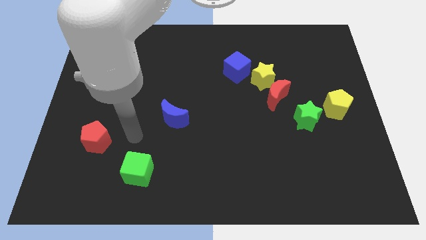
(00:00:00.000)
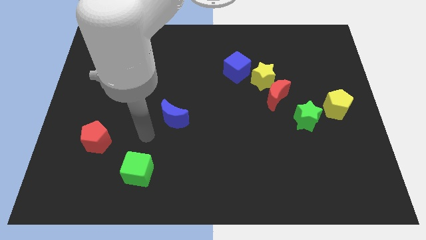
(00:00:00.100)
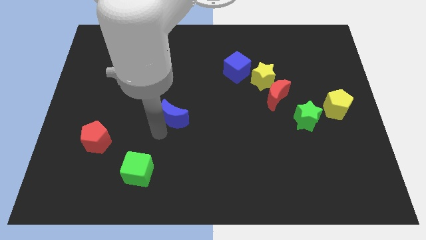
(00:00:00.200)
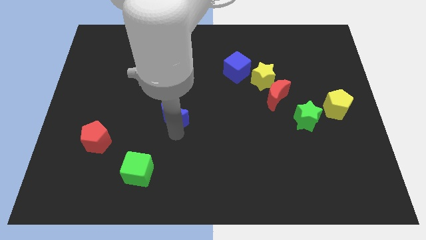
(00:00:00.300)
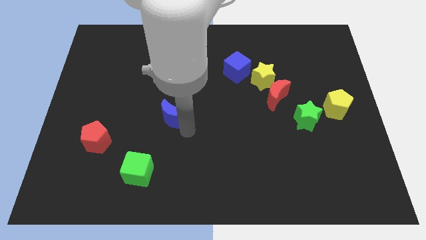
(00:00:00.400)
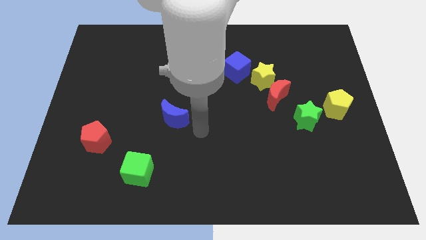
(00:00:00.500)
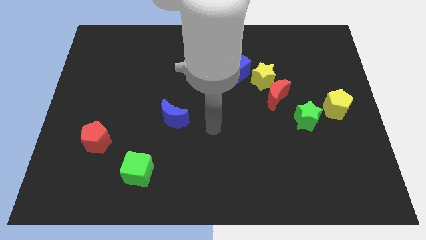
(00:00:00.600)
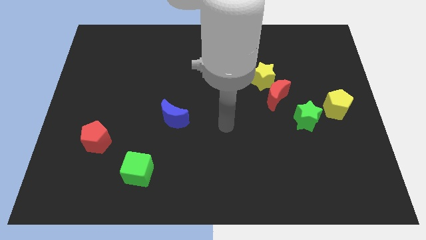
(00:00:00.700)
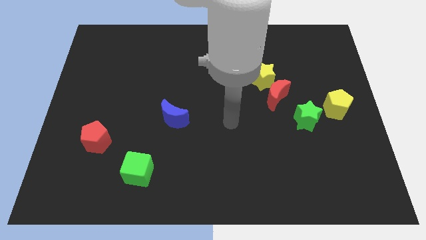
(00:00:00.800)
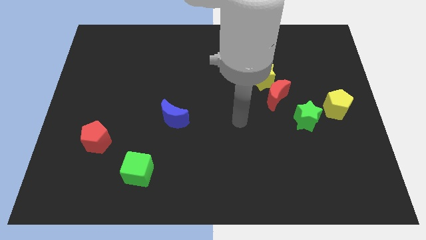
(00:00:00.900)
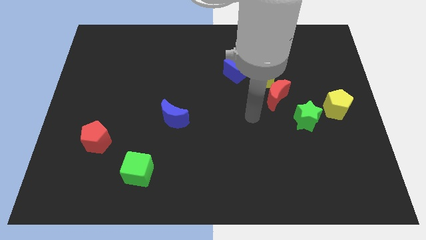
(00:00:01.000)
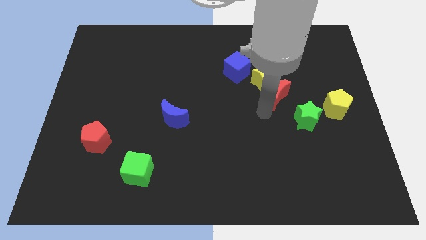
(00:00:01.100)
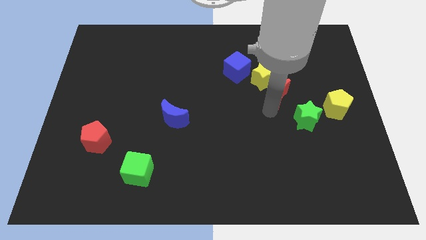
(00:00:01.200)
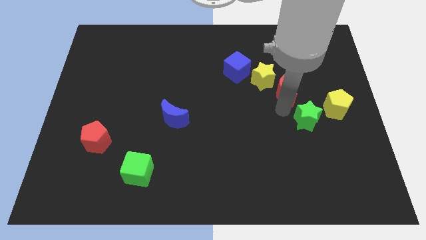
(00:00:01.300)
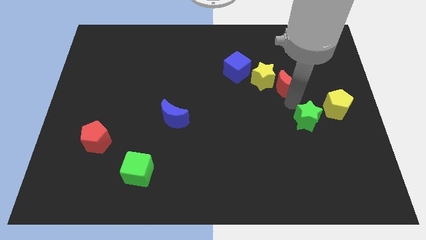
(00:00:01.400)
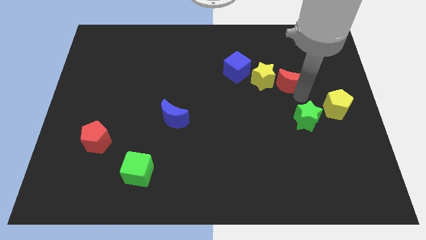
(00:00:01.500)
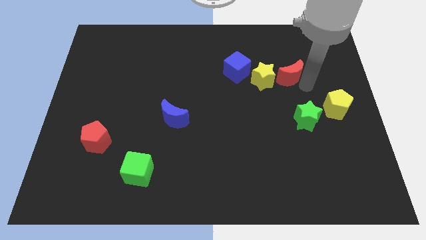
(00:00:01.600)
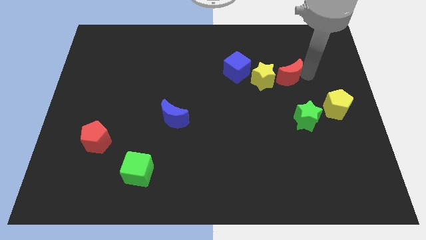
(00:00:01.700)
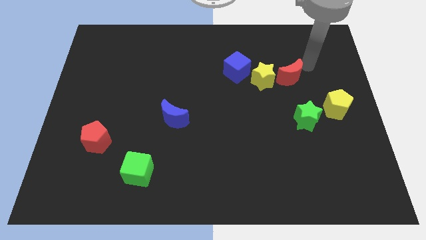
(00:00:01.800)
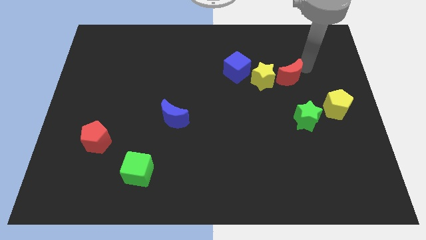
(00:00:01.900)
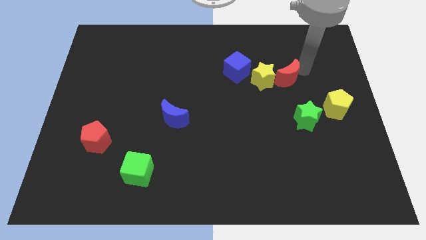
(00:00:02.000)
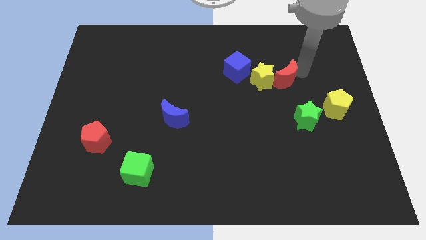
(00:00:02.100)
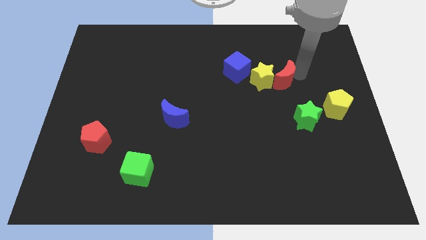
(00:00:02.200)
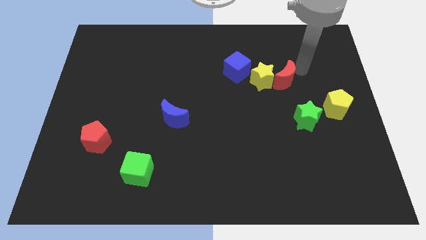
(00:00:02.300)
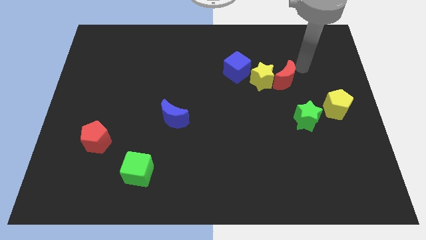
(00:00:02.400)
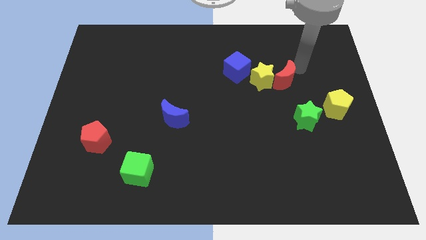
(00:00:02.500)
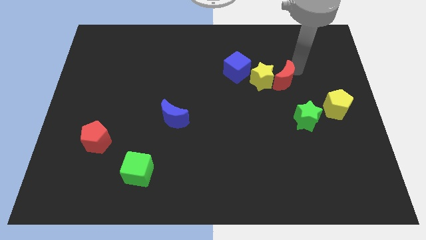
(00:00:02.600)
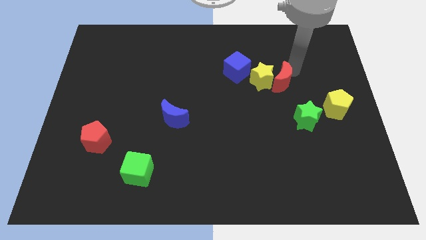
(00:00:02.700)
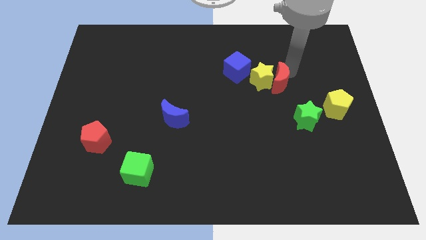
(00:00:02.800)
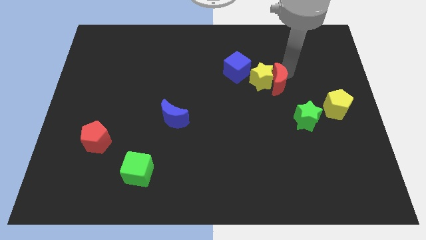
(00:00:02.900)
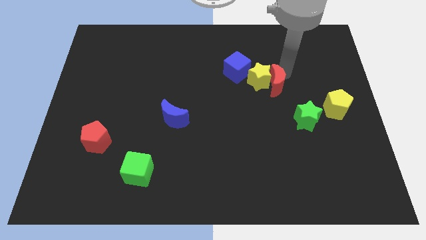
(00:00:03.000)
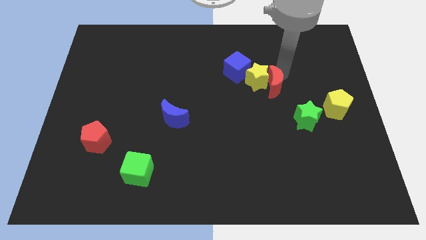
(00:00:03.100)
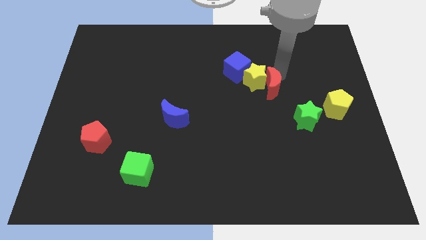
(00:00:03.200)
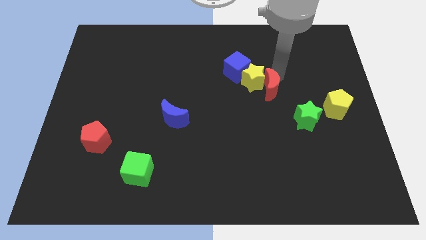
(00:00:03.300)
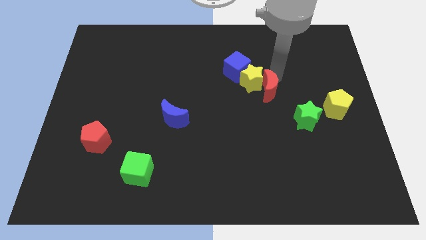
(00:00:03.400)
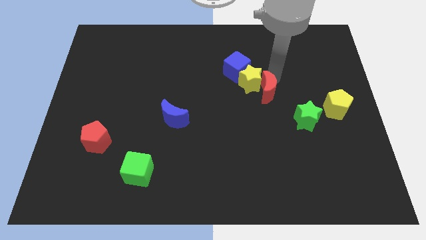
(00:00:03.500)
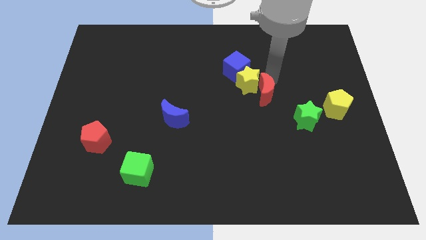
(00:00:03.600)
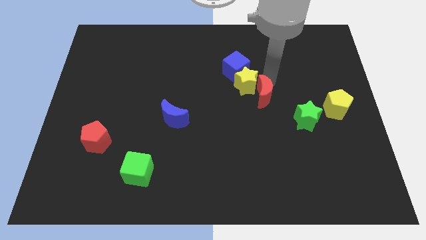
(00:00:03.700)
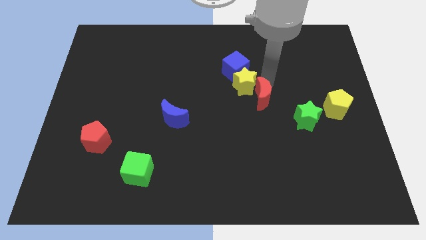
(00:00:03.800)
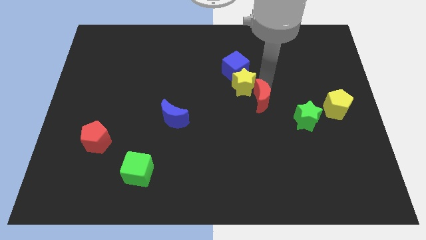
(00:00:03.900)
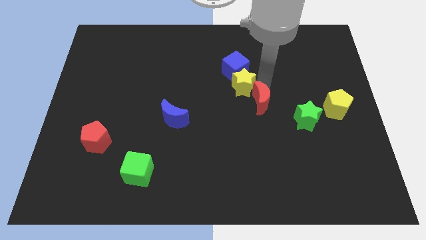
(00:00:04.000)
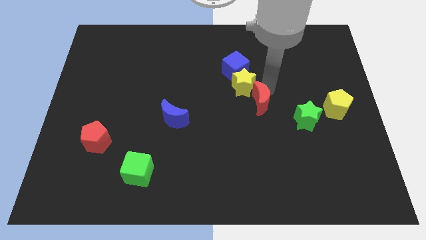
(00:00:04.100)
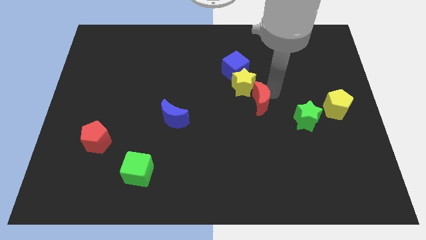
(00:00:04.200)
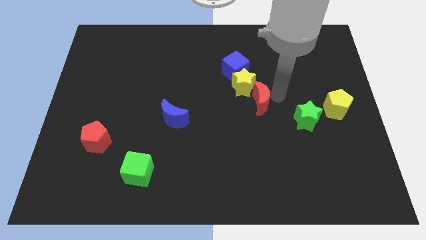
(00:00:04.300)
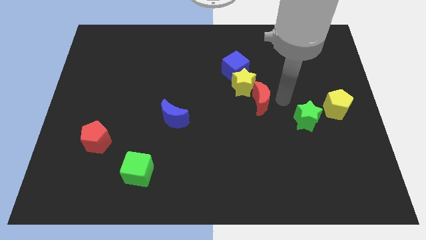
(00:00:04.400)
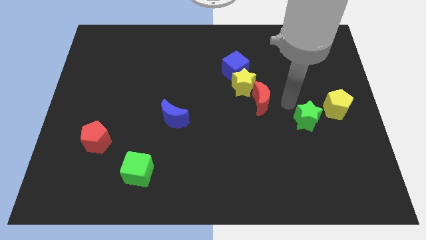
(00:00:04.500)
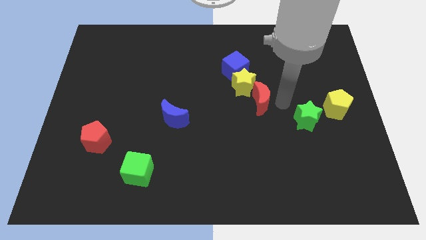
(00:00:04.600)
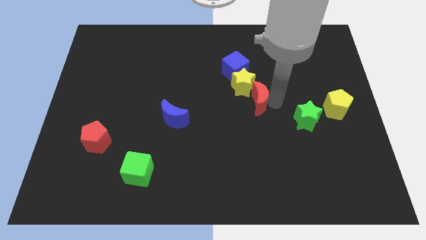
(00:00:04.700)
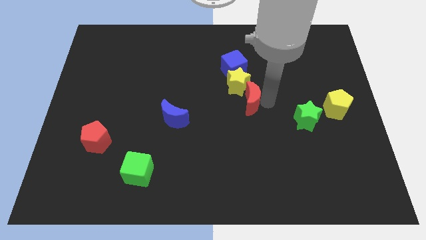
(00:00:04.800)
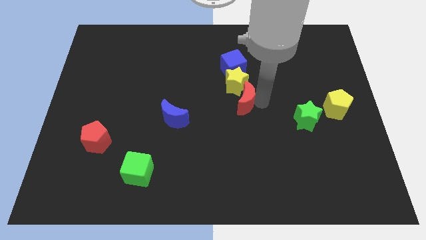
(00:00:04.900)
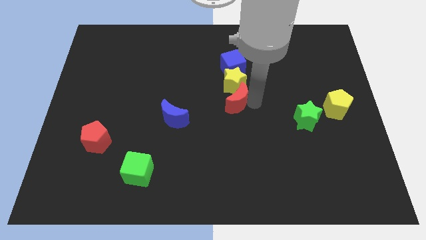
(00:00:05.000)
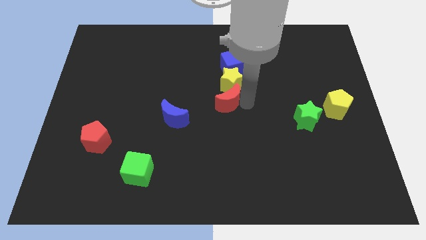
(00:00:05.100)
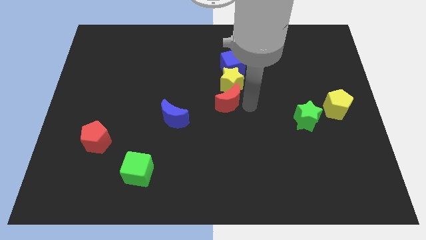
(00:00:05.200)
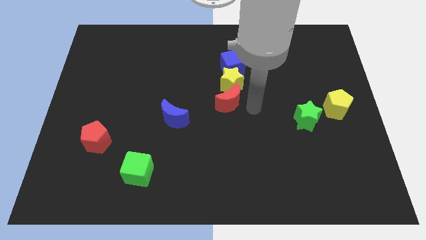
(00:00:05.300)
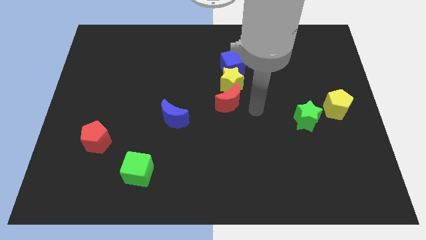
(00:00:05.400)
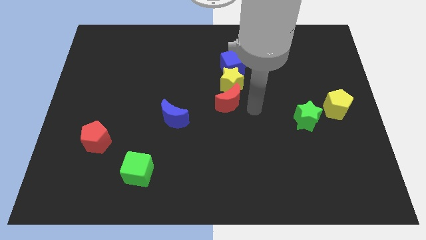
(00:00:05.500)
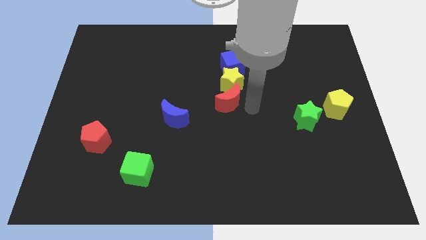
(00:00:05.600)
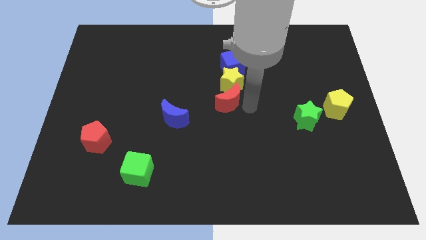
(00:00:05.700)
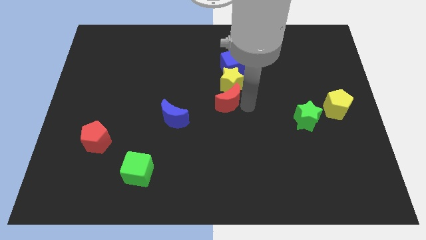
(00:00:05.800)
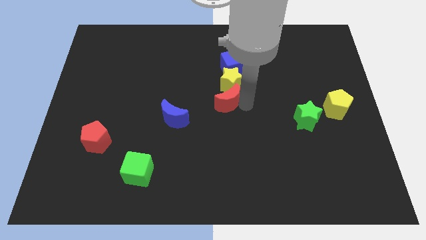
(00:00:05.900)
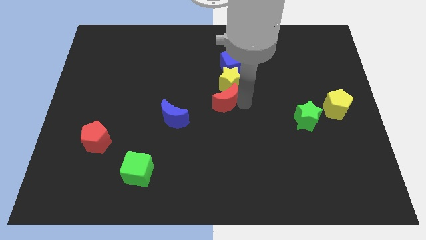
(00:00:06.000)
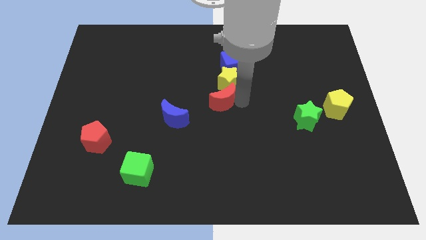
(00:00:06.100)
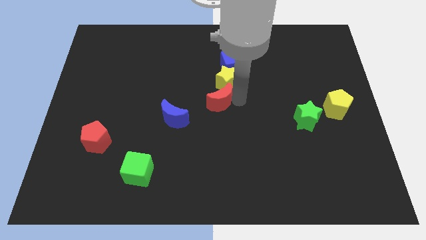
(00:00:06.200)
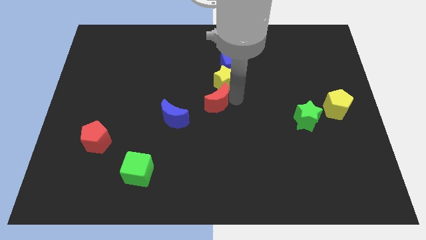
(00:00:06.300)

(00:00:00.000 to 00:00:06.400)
slide the red moon to the top right side of the blue moon
